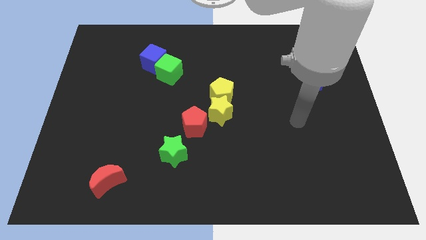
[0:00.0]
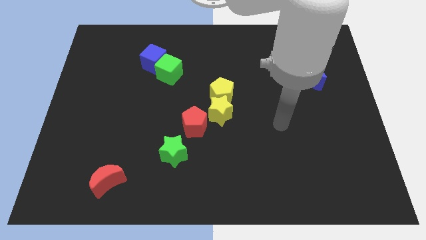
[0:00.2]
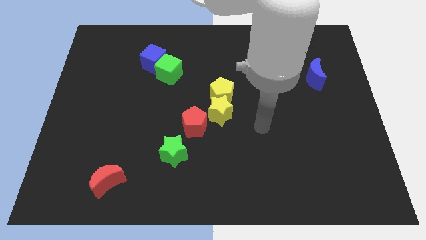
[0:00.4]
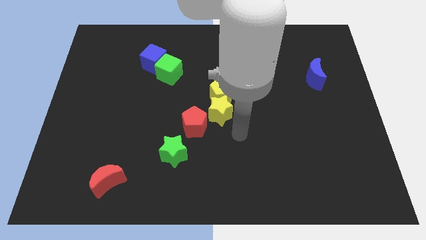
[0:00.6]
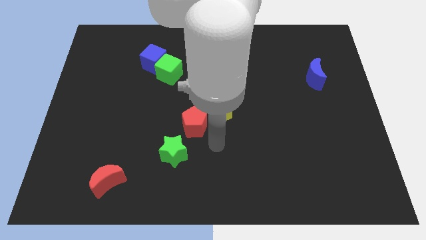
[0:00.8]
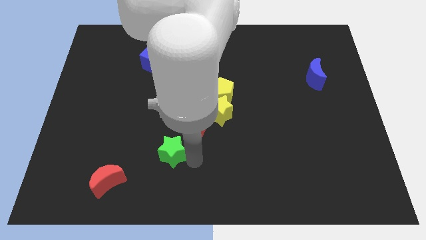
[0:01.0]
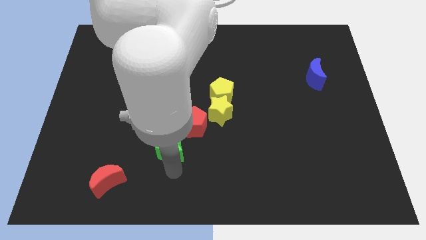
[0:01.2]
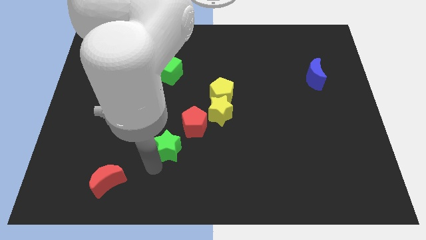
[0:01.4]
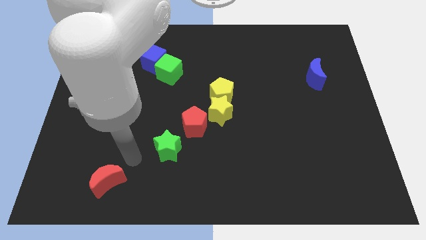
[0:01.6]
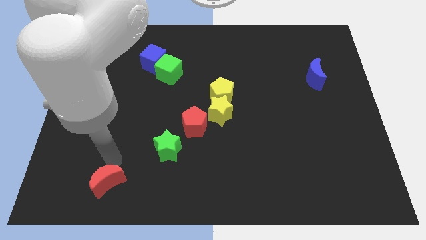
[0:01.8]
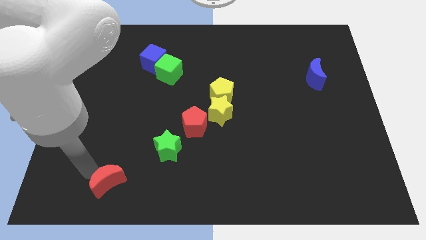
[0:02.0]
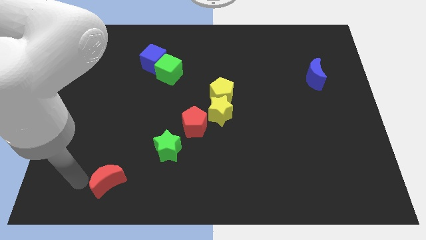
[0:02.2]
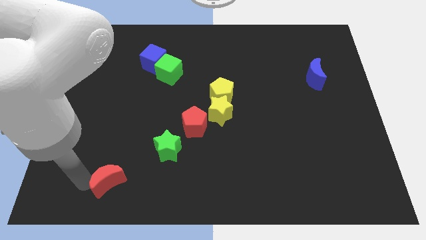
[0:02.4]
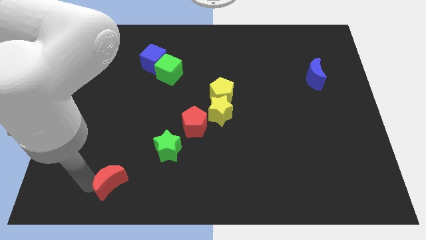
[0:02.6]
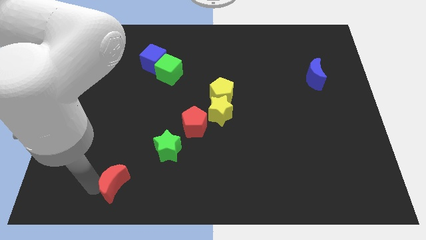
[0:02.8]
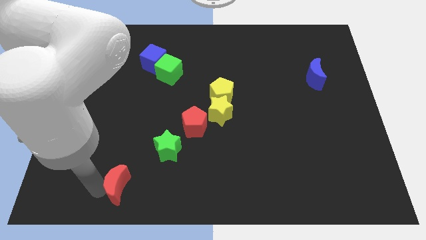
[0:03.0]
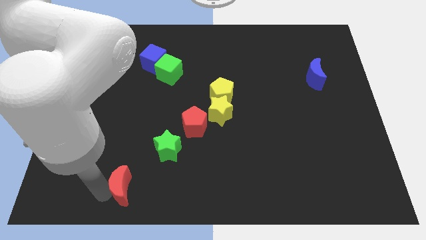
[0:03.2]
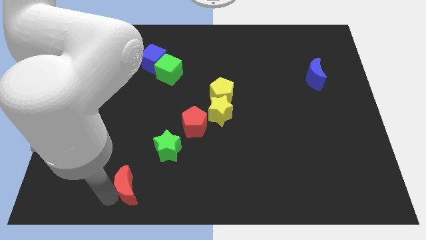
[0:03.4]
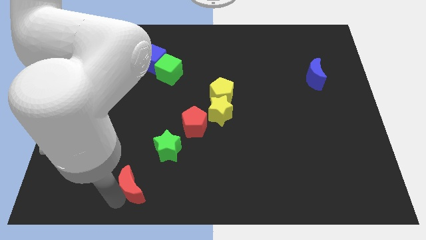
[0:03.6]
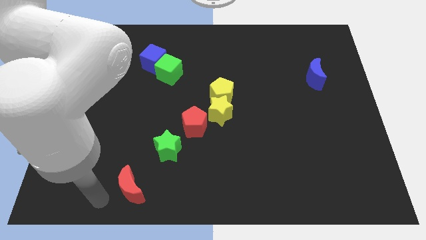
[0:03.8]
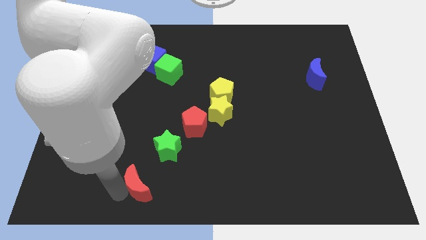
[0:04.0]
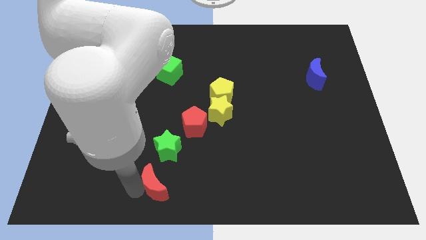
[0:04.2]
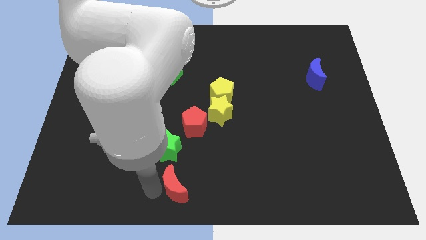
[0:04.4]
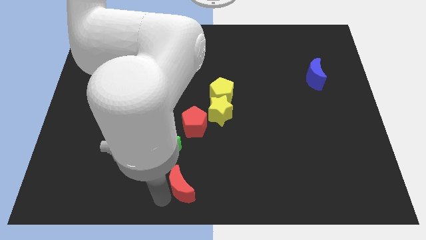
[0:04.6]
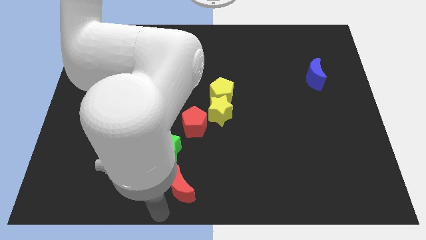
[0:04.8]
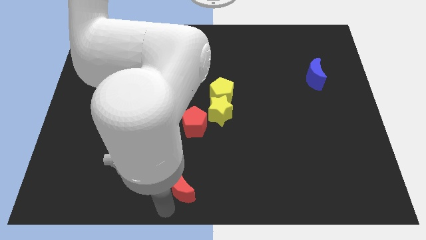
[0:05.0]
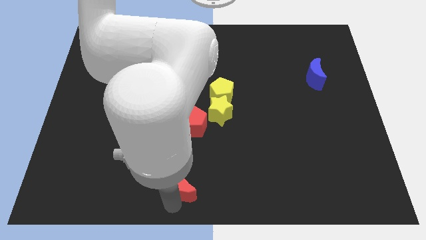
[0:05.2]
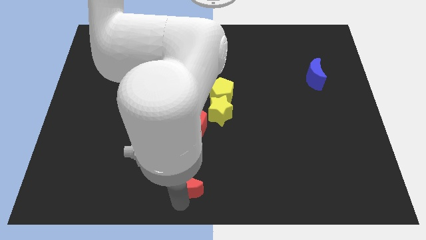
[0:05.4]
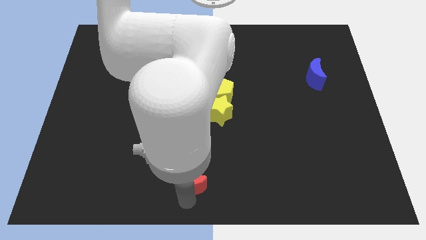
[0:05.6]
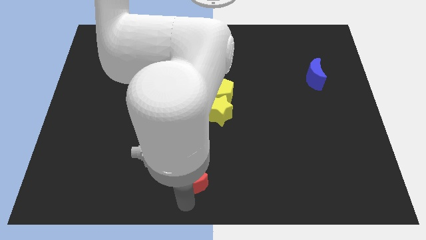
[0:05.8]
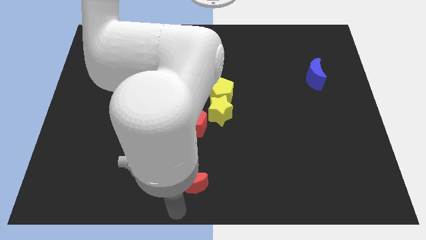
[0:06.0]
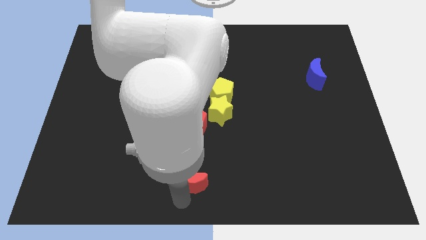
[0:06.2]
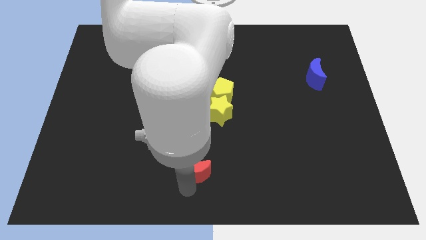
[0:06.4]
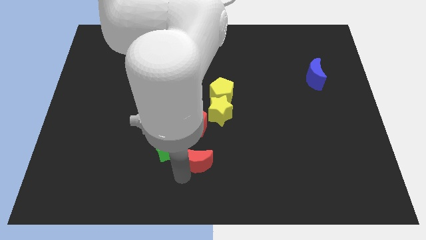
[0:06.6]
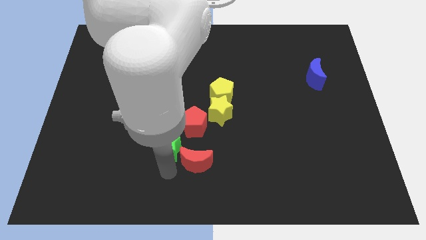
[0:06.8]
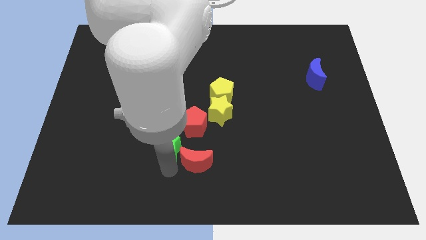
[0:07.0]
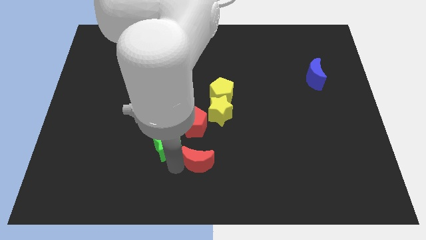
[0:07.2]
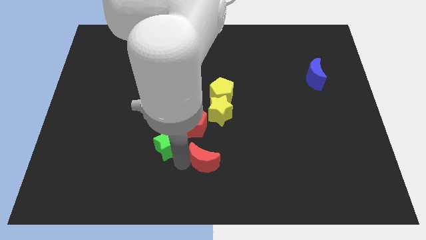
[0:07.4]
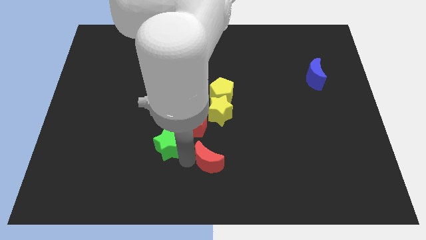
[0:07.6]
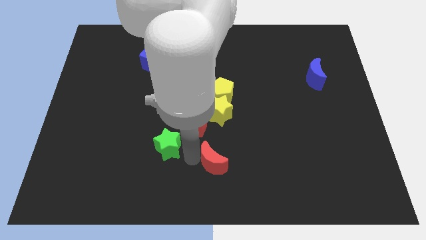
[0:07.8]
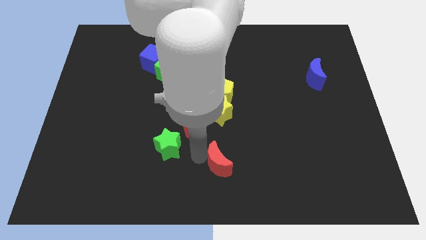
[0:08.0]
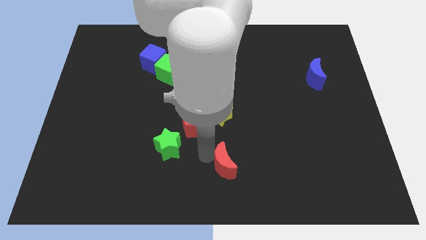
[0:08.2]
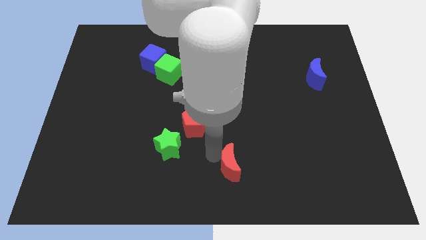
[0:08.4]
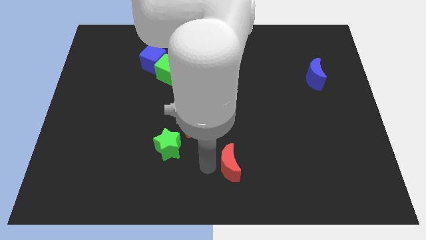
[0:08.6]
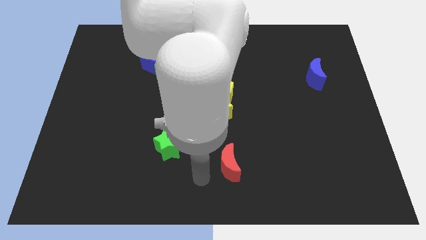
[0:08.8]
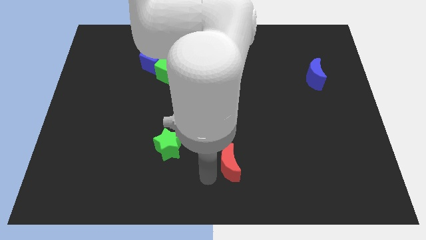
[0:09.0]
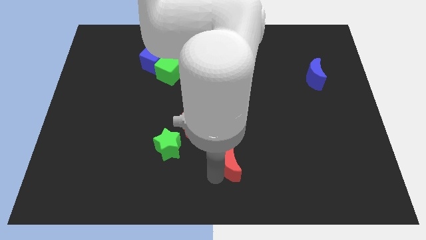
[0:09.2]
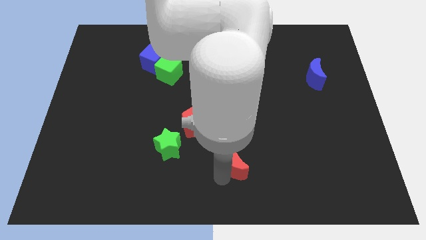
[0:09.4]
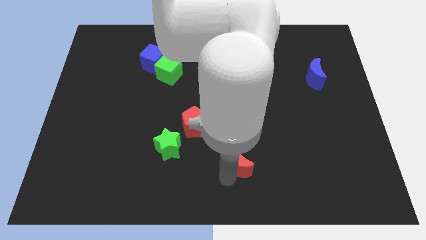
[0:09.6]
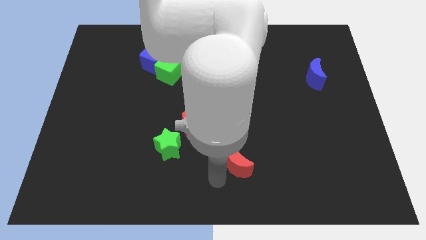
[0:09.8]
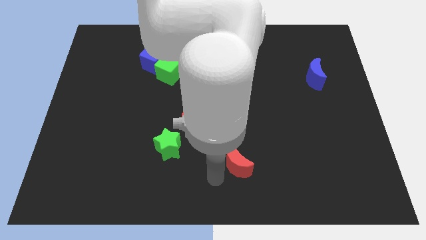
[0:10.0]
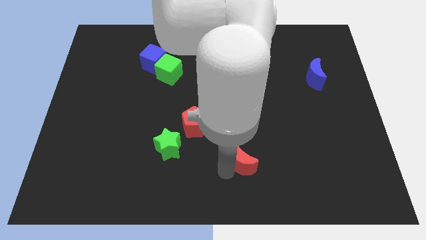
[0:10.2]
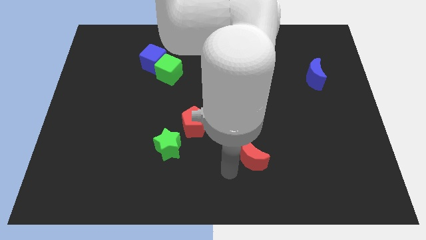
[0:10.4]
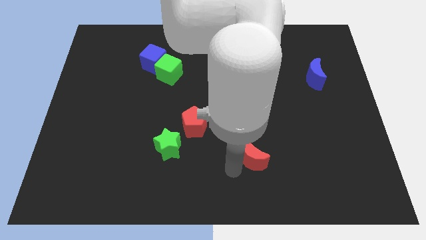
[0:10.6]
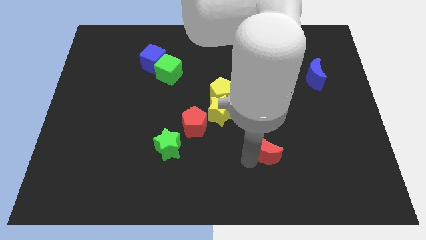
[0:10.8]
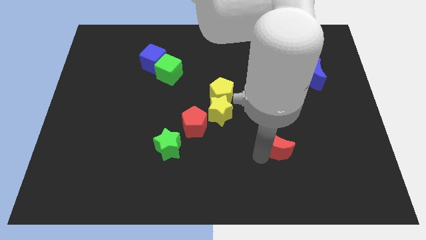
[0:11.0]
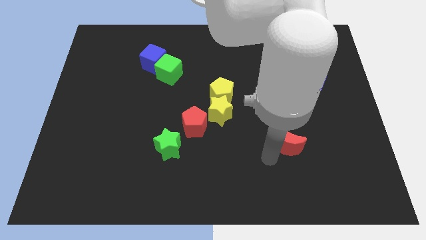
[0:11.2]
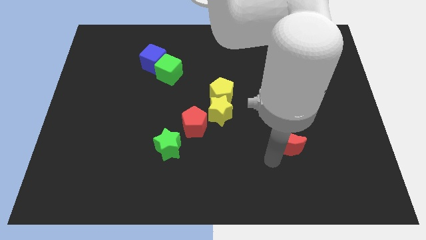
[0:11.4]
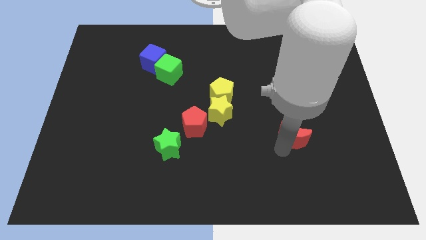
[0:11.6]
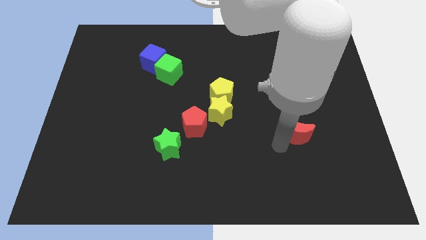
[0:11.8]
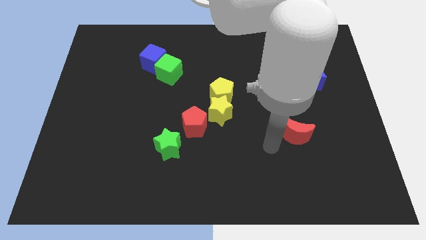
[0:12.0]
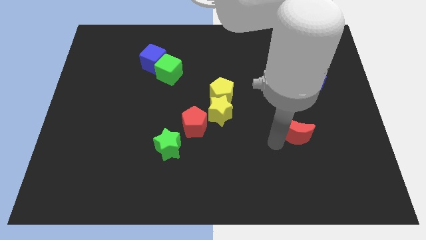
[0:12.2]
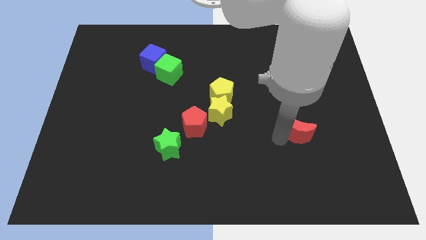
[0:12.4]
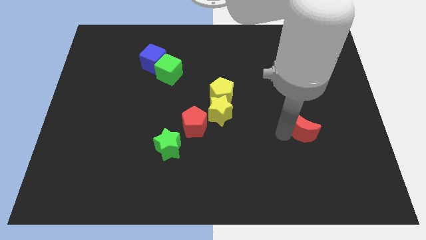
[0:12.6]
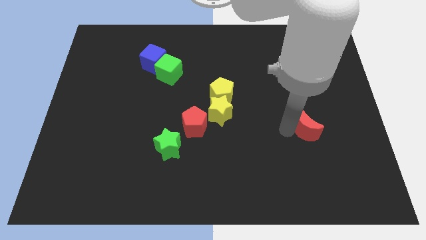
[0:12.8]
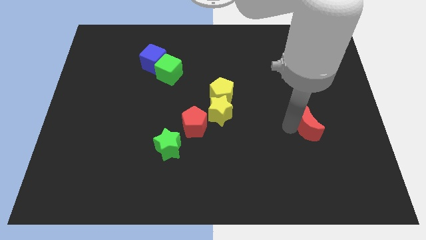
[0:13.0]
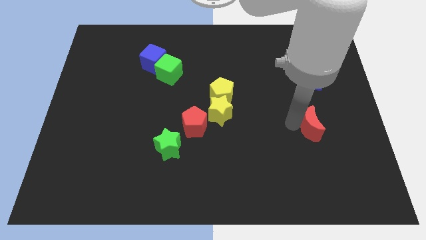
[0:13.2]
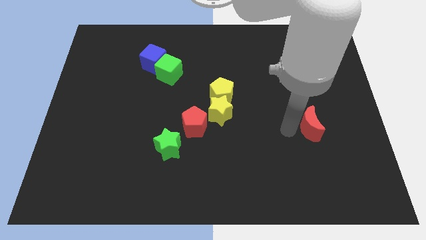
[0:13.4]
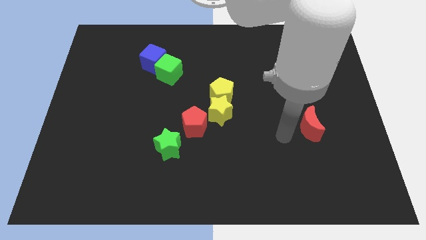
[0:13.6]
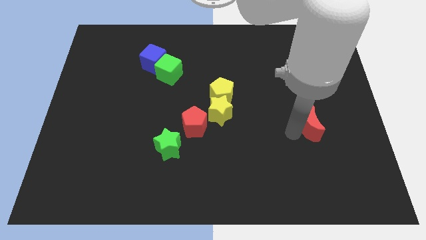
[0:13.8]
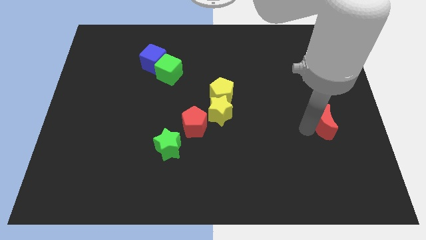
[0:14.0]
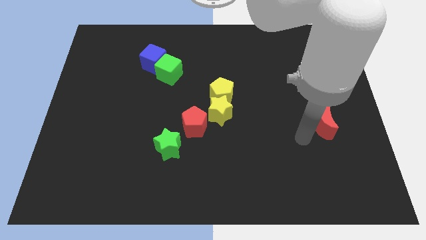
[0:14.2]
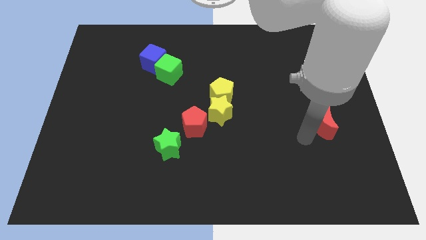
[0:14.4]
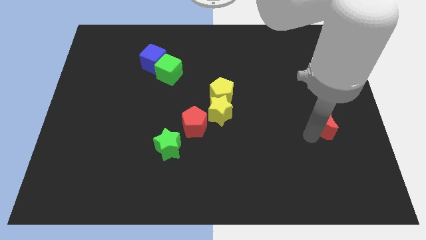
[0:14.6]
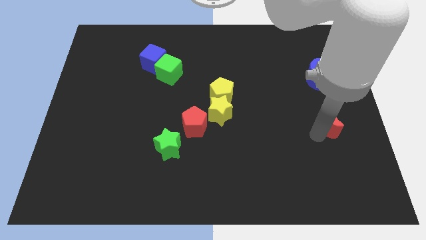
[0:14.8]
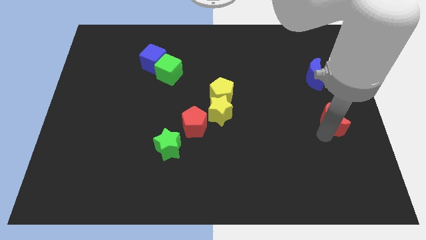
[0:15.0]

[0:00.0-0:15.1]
slide the red moon to the right side
